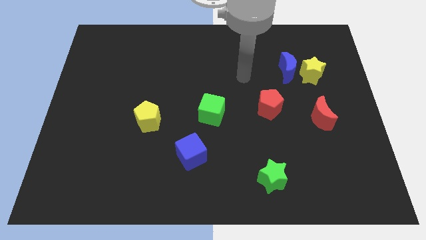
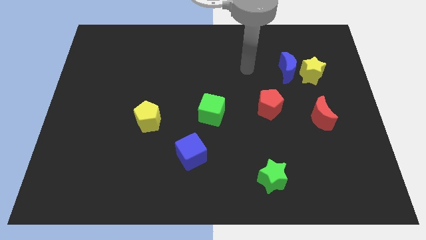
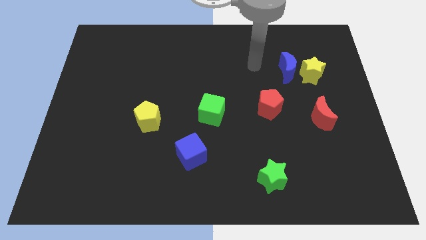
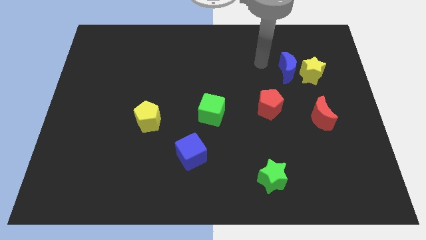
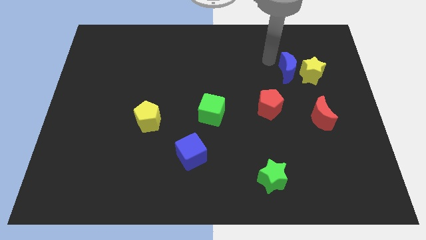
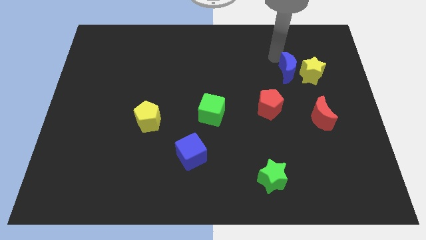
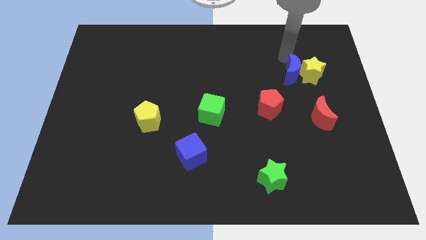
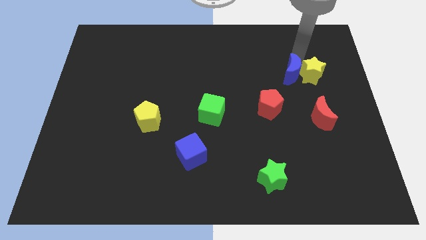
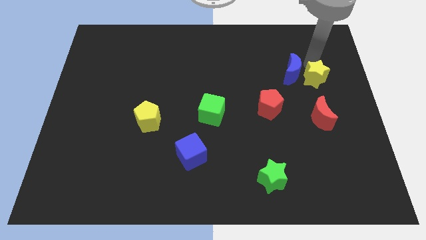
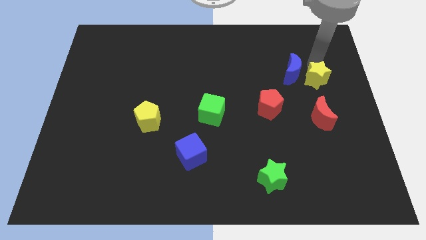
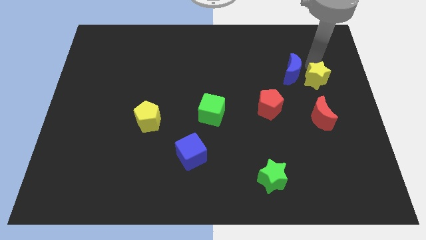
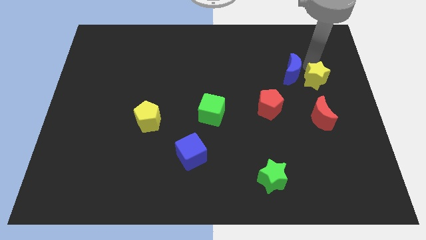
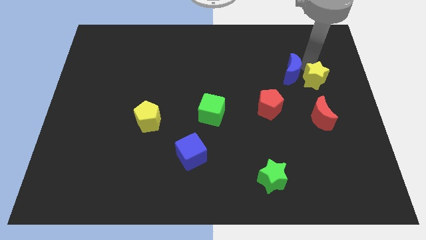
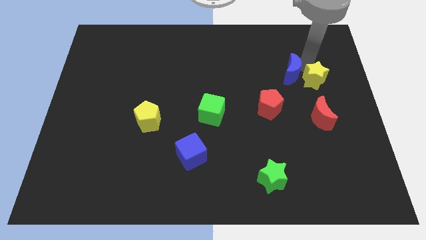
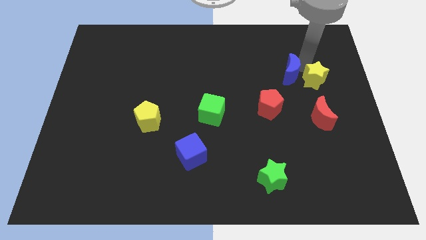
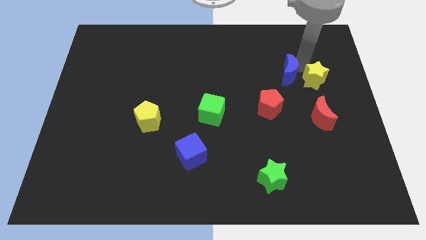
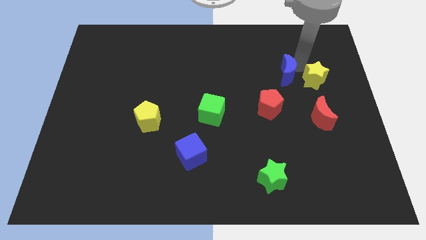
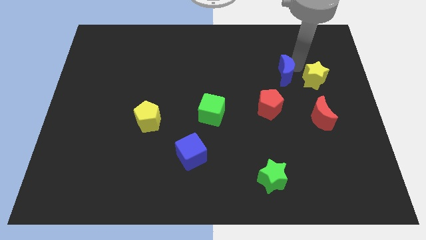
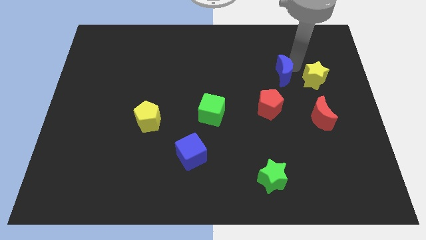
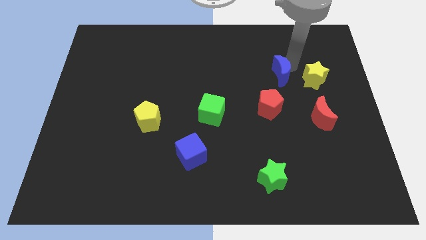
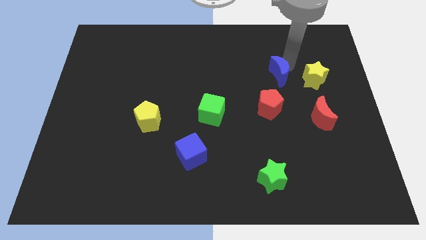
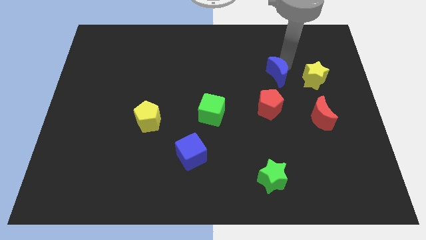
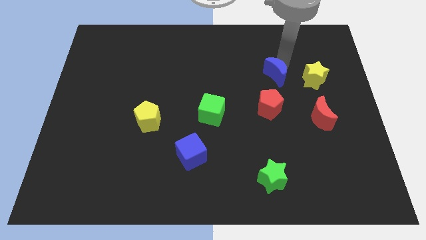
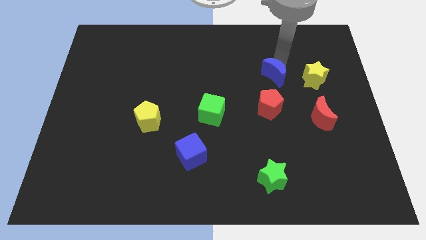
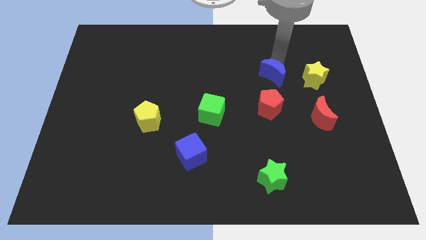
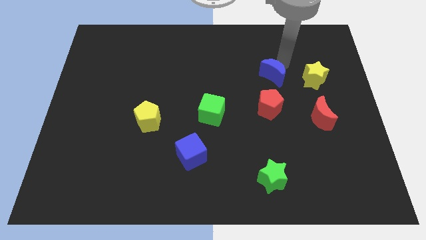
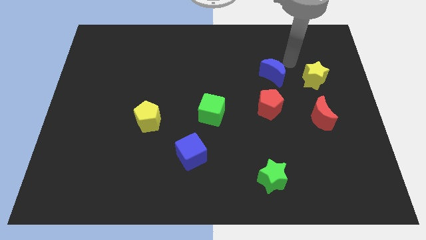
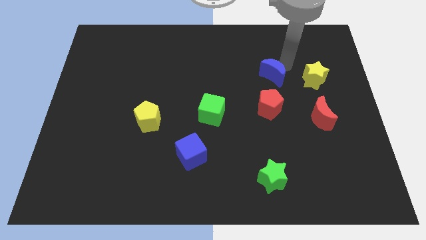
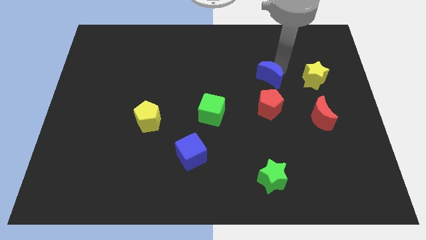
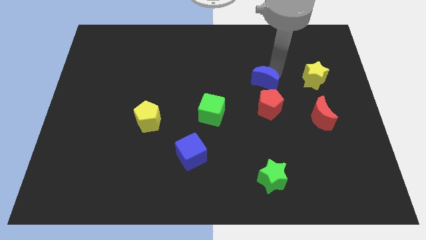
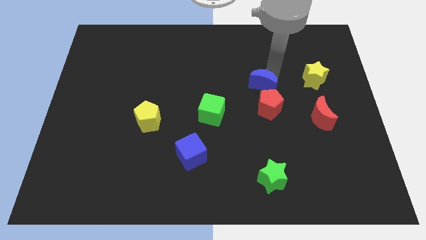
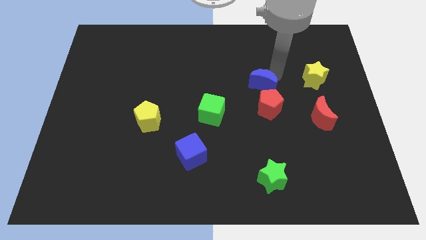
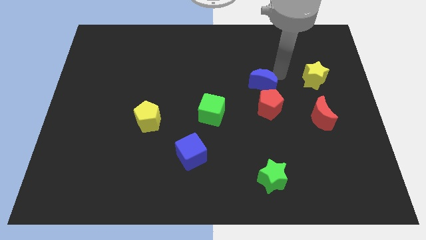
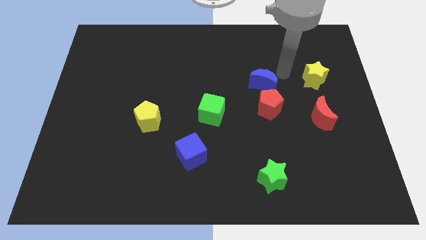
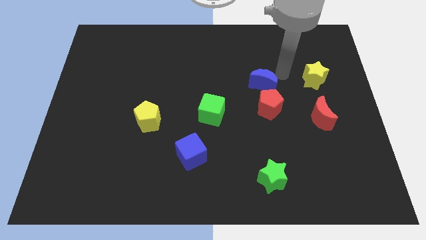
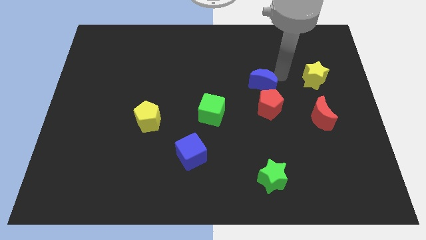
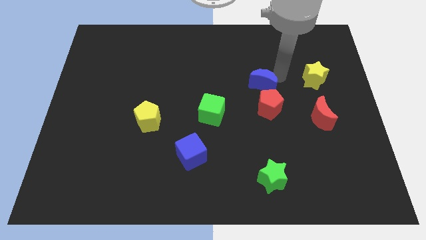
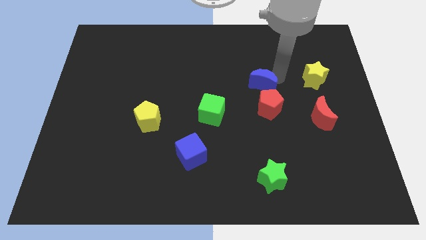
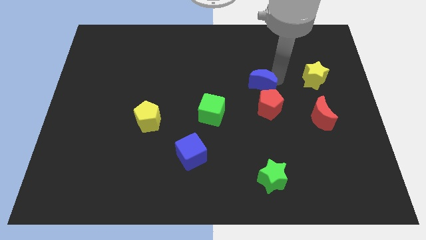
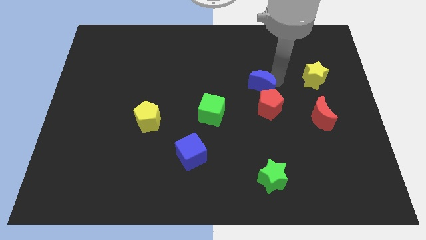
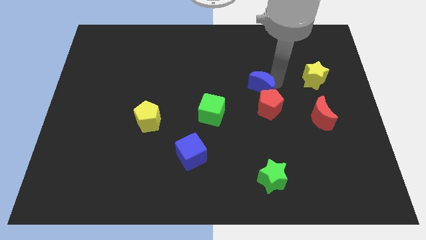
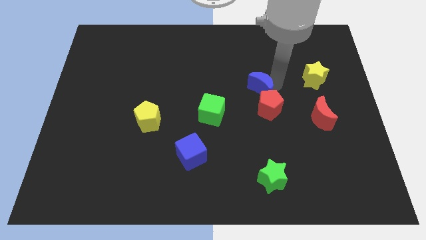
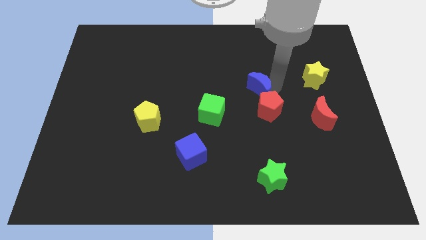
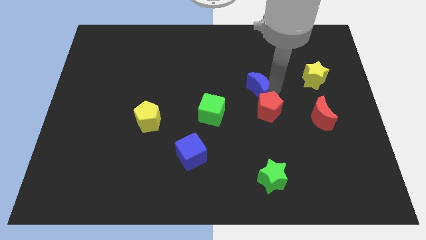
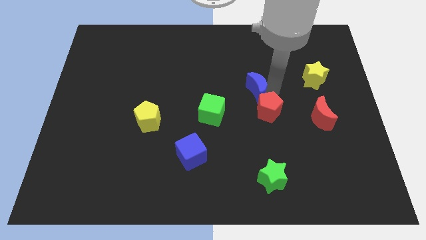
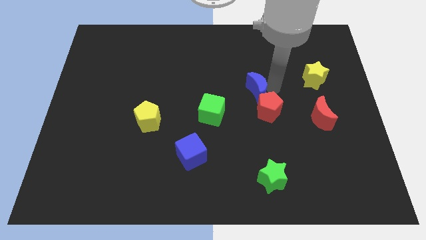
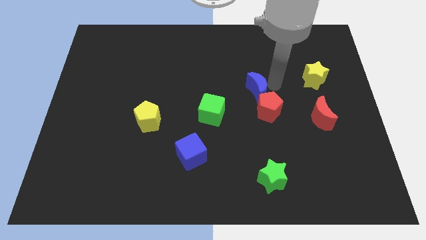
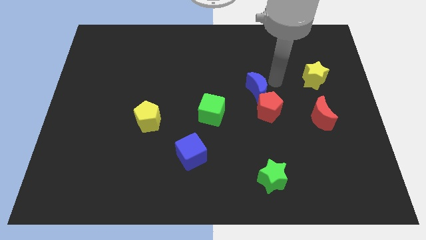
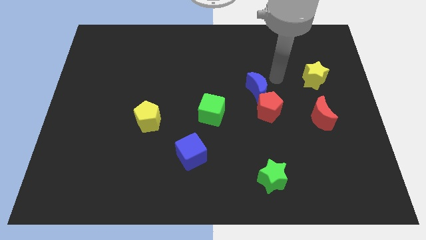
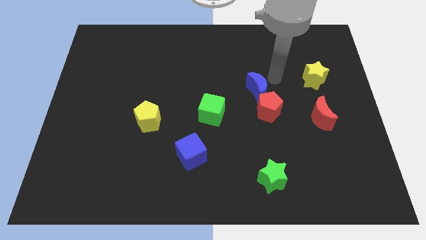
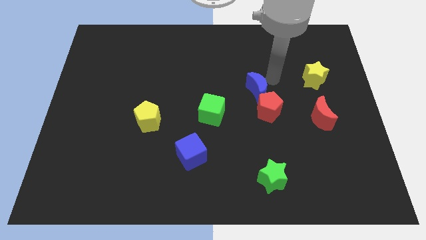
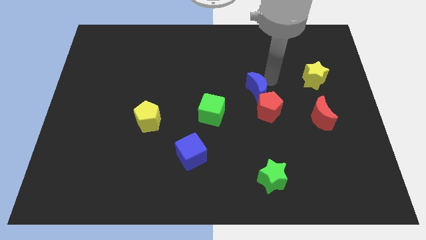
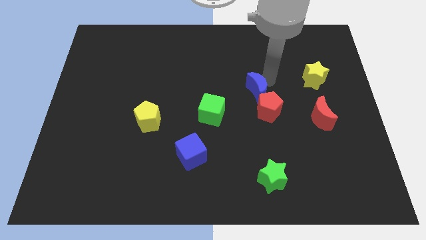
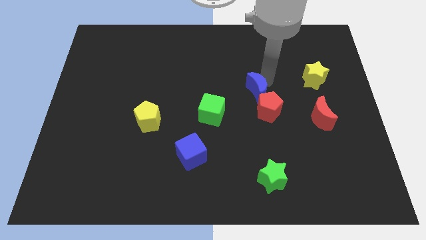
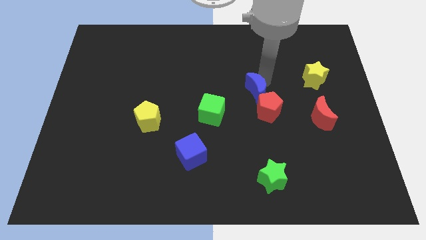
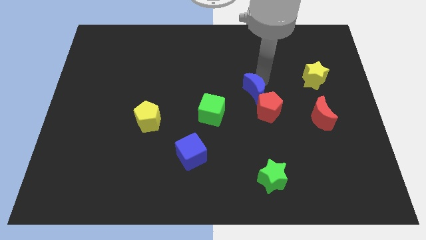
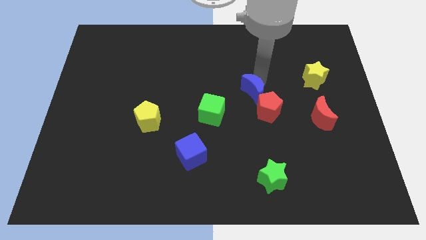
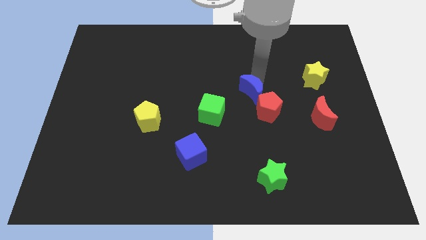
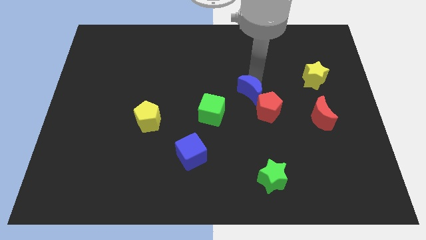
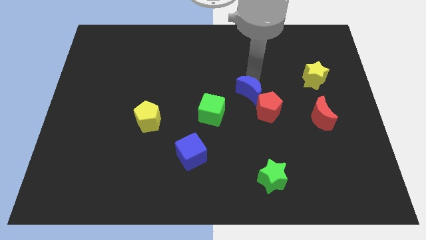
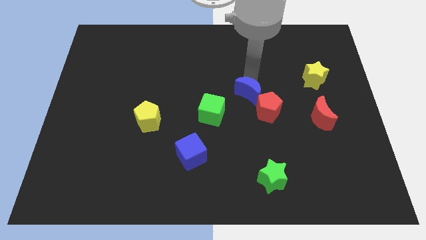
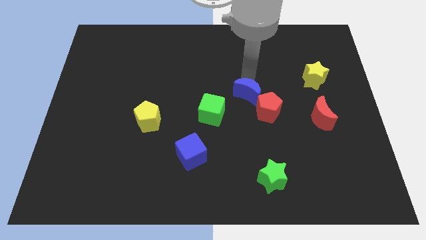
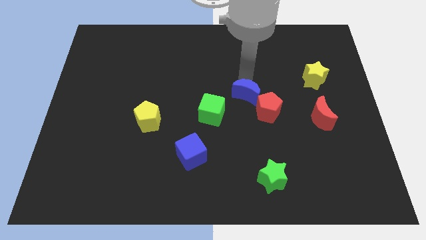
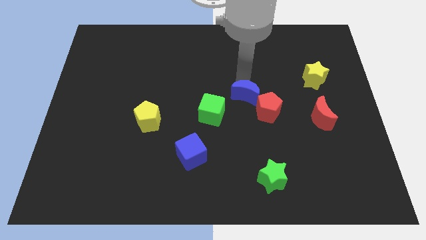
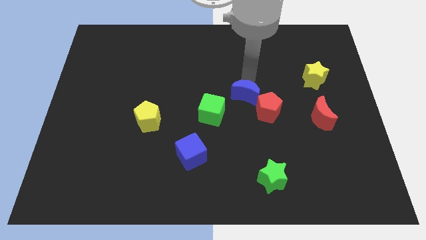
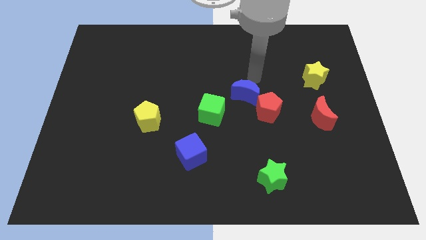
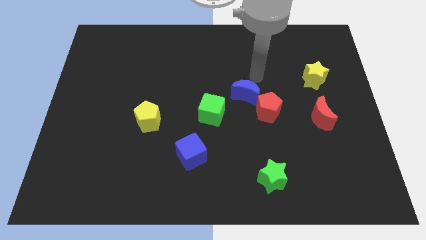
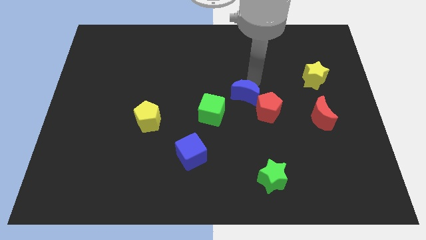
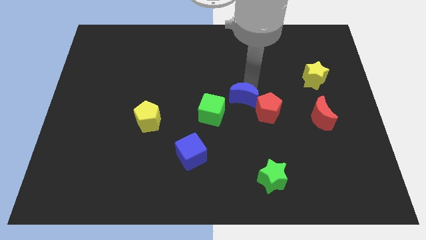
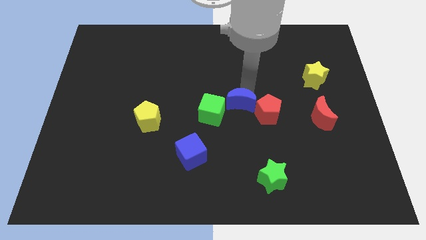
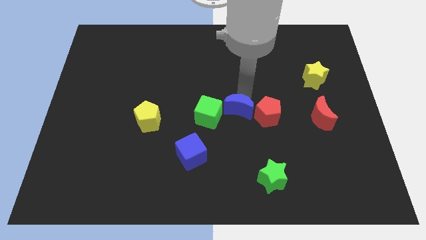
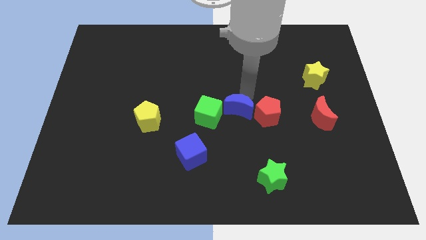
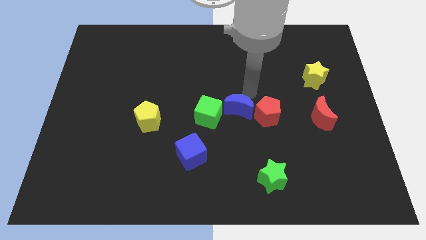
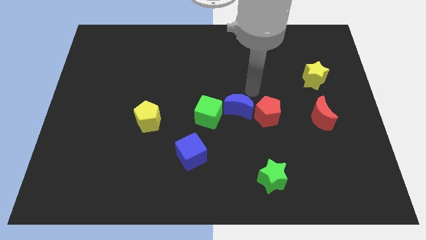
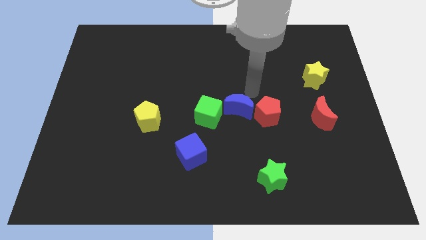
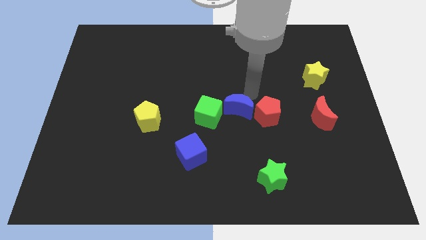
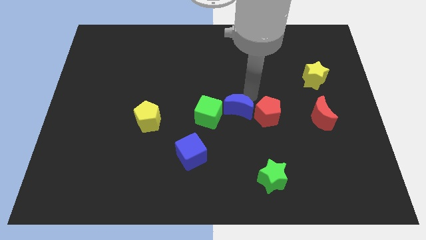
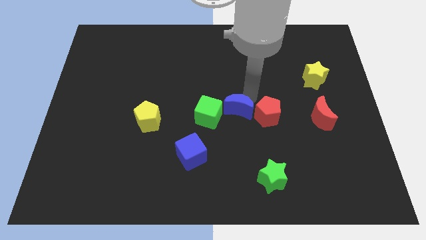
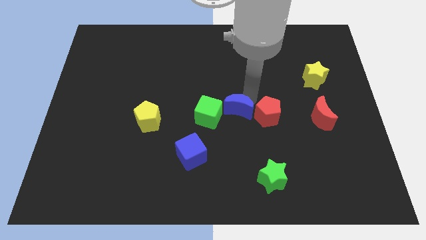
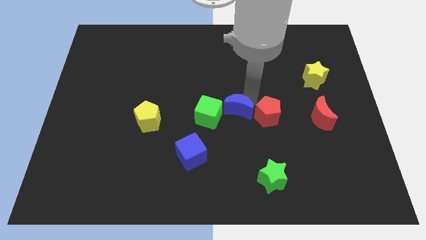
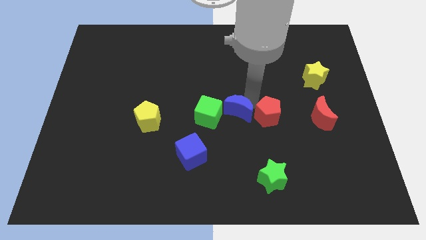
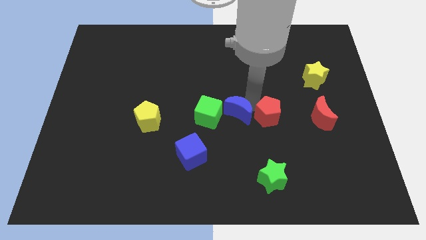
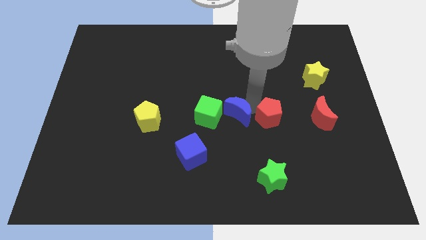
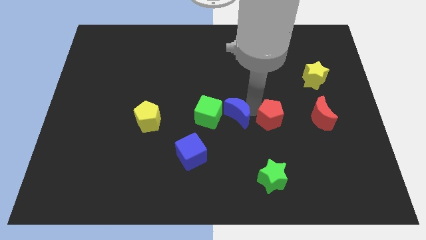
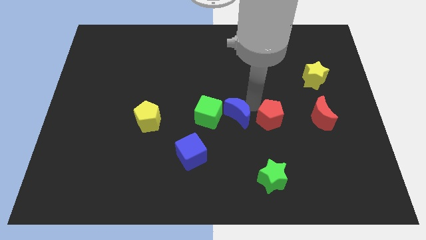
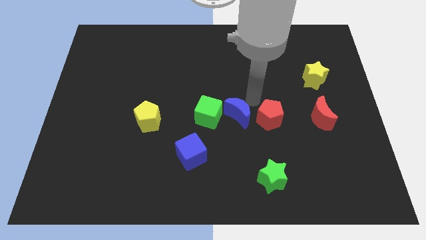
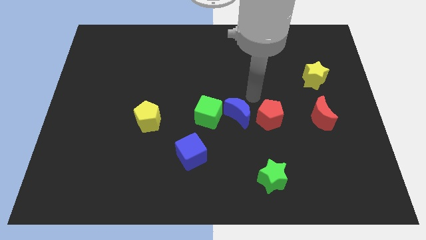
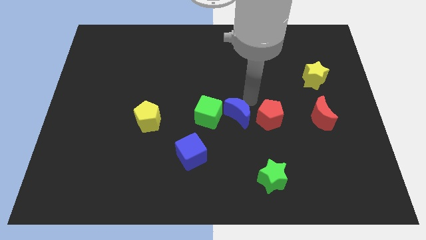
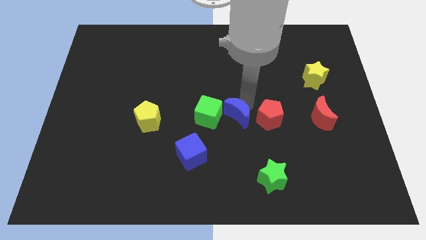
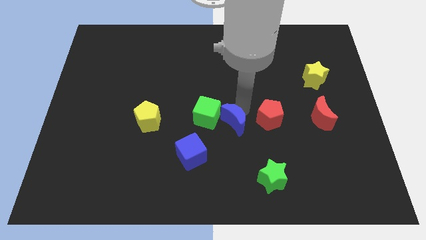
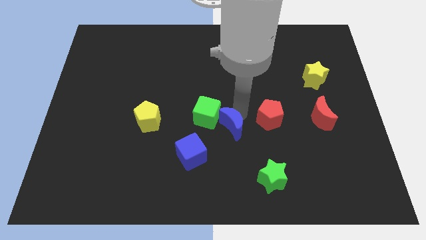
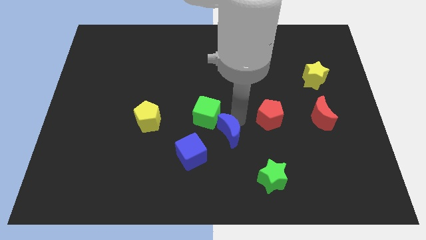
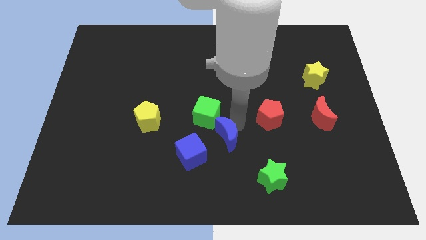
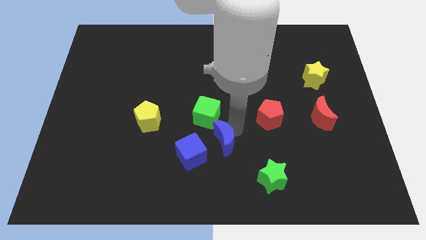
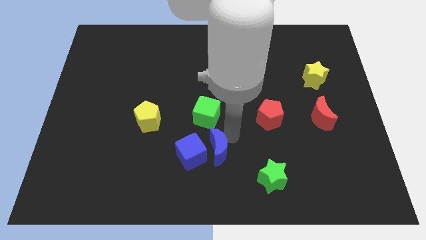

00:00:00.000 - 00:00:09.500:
put the blue moon next to the blue cube
